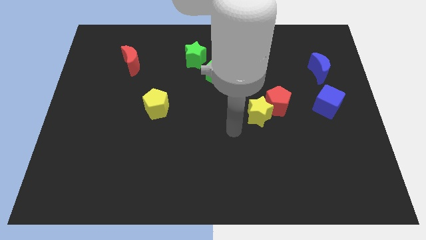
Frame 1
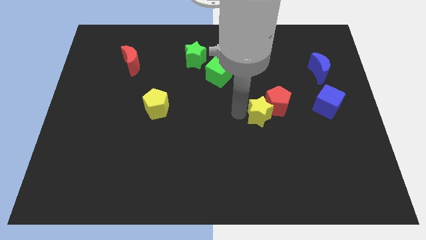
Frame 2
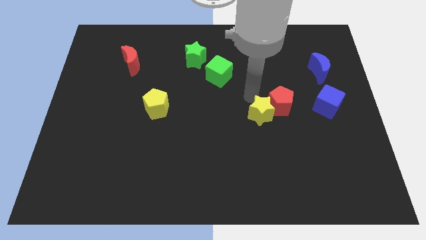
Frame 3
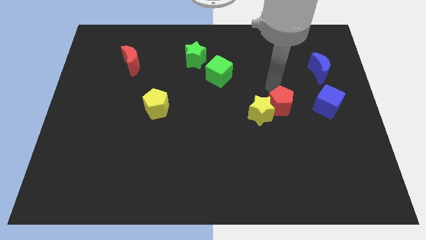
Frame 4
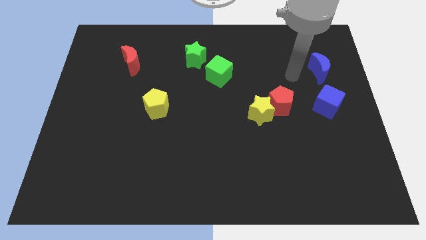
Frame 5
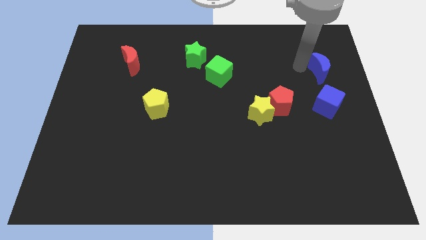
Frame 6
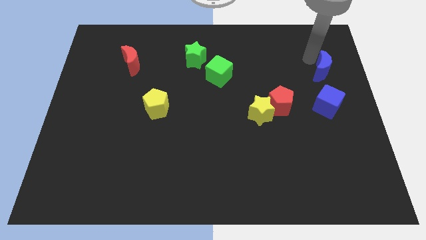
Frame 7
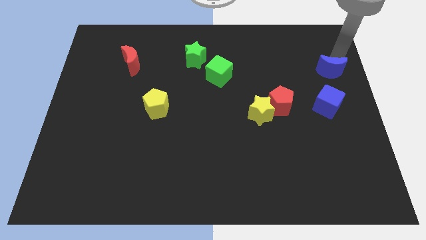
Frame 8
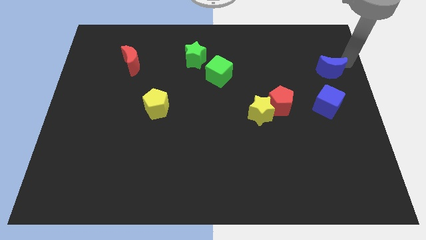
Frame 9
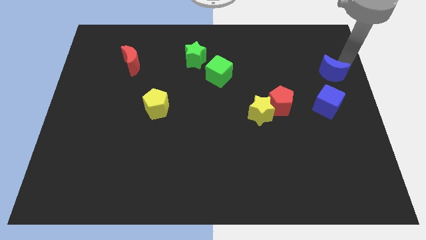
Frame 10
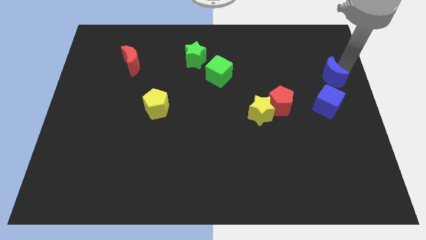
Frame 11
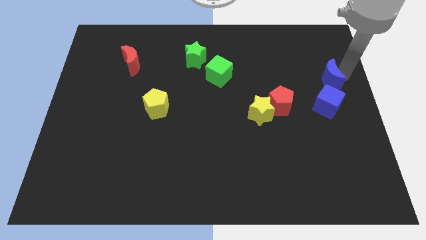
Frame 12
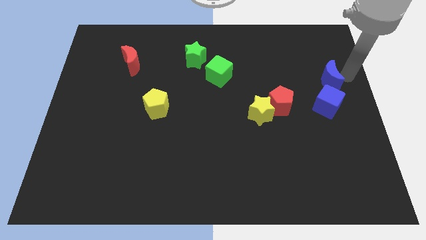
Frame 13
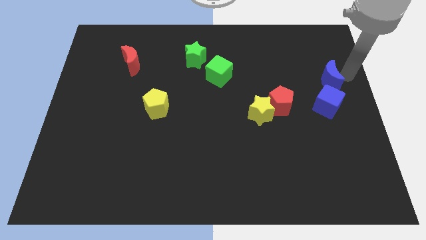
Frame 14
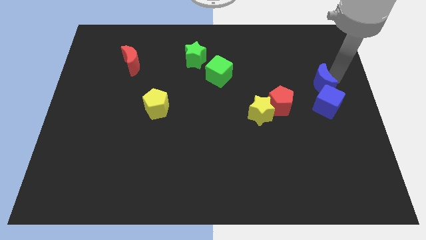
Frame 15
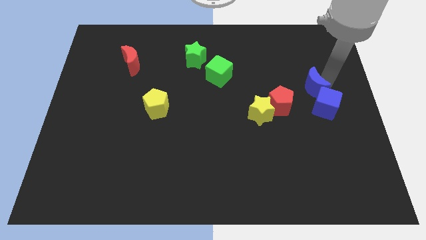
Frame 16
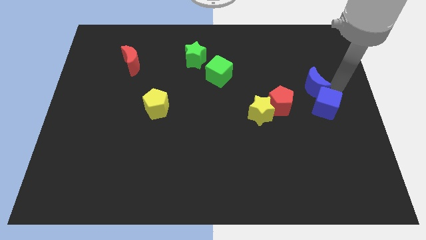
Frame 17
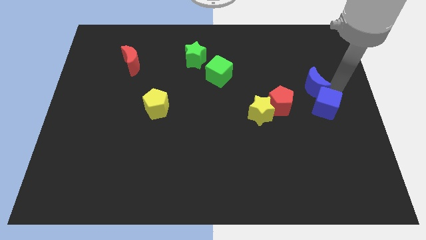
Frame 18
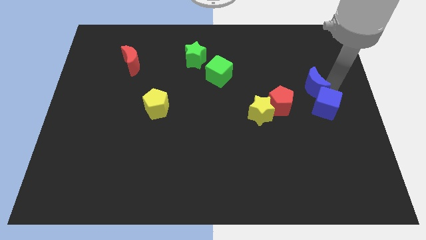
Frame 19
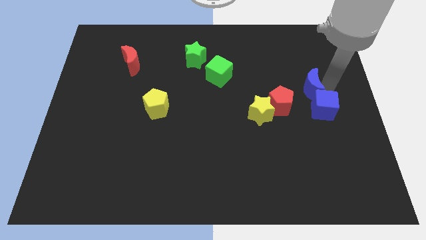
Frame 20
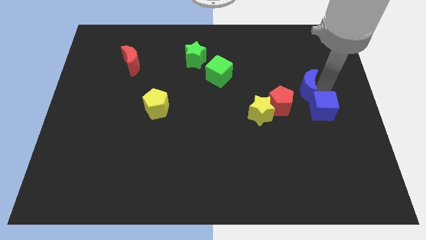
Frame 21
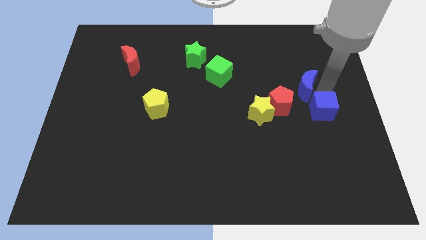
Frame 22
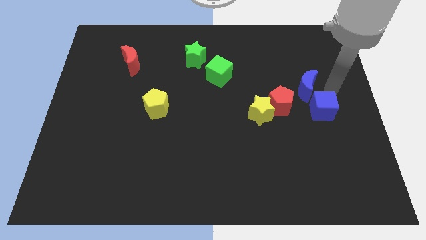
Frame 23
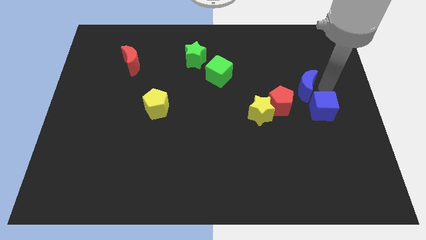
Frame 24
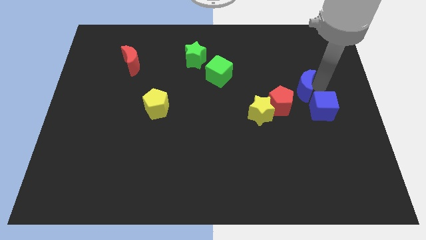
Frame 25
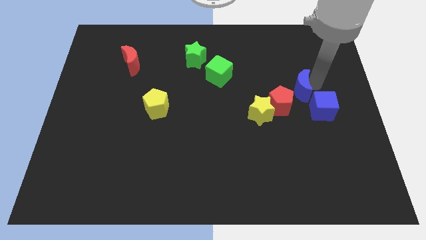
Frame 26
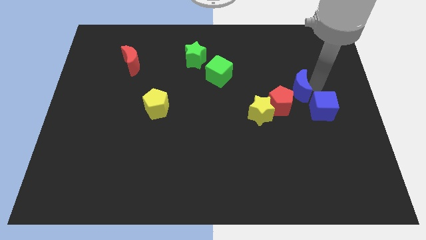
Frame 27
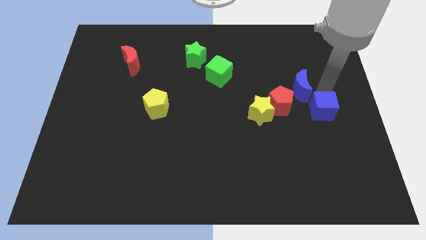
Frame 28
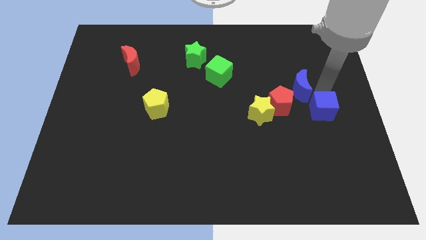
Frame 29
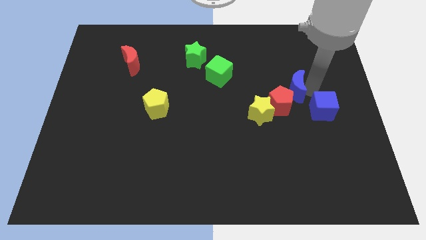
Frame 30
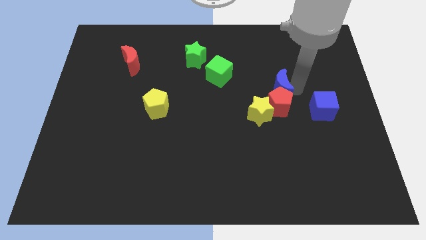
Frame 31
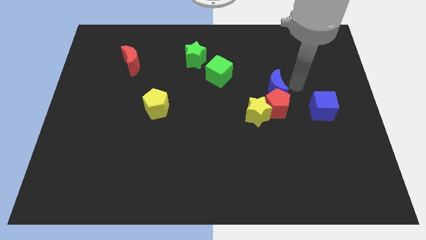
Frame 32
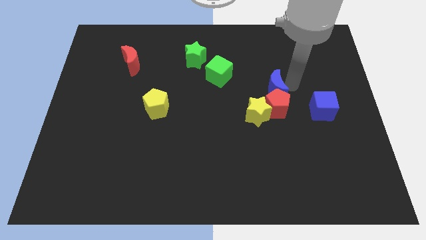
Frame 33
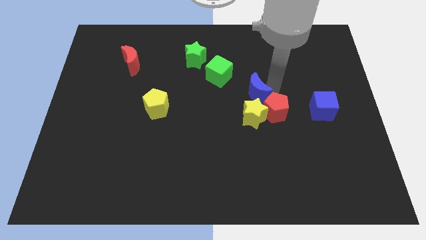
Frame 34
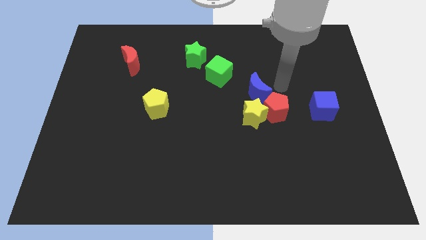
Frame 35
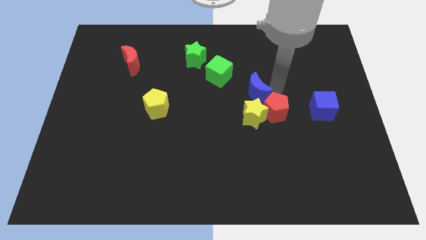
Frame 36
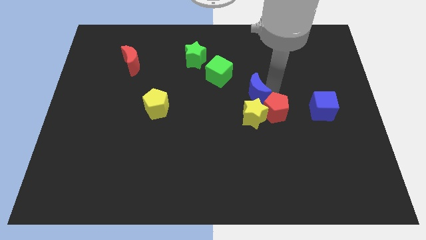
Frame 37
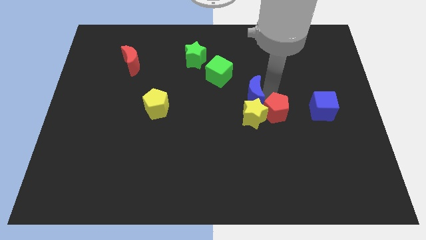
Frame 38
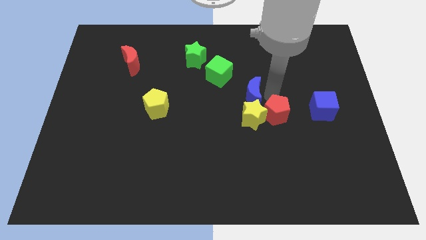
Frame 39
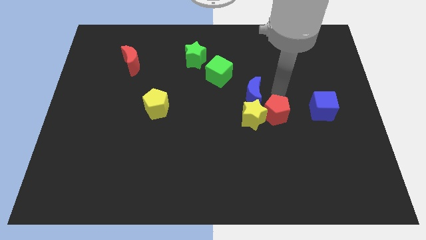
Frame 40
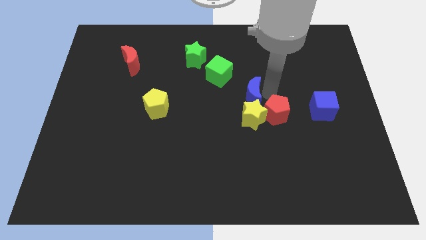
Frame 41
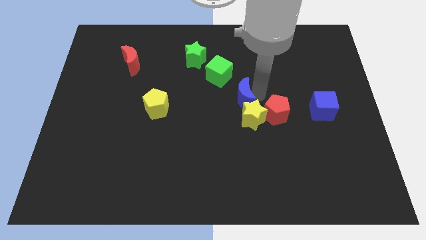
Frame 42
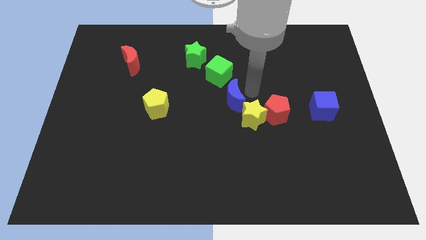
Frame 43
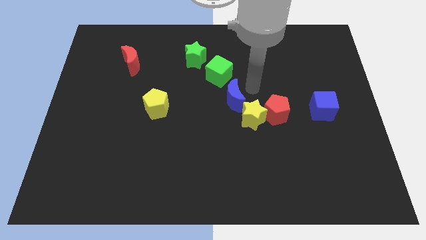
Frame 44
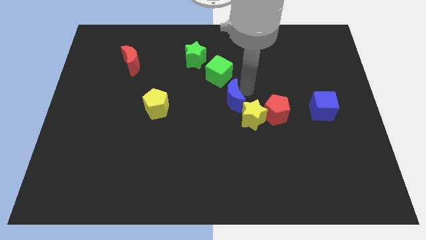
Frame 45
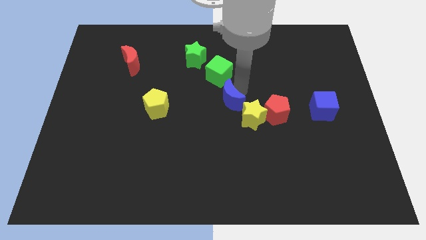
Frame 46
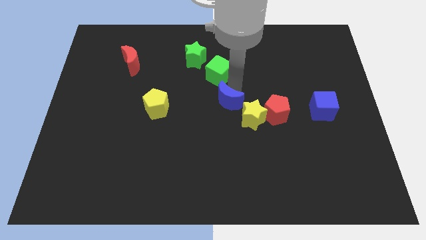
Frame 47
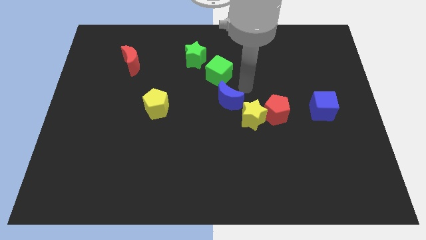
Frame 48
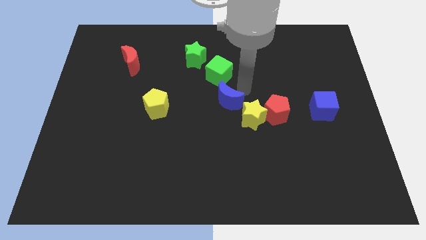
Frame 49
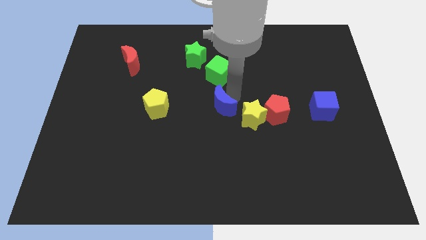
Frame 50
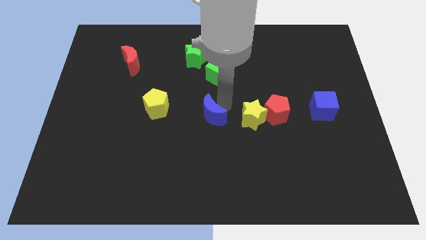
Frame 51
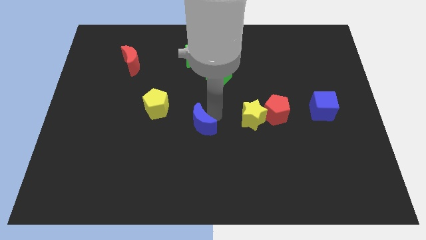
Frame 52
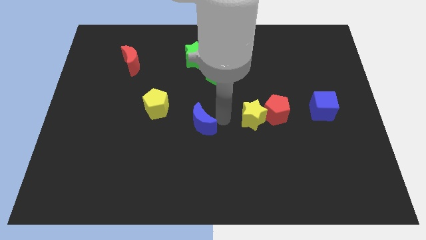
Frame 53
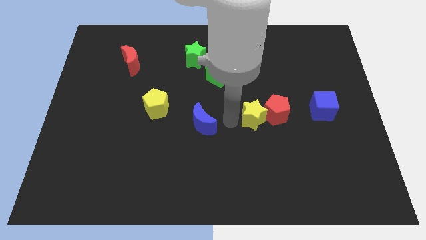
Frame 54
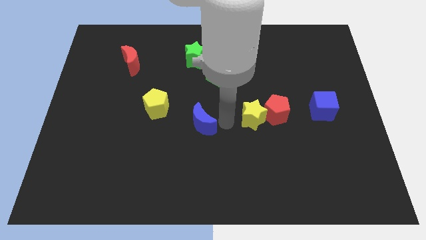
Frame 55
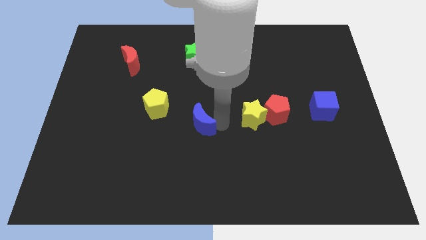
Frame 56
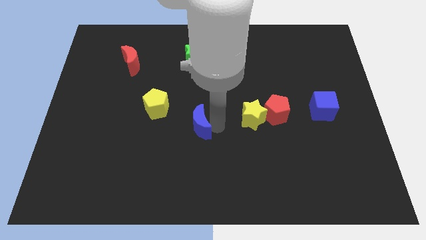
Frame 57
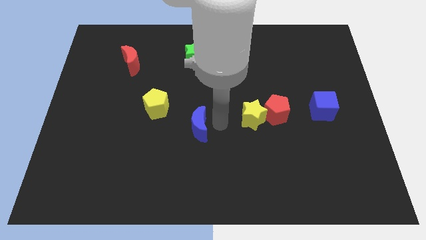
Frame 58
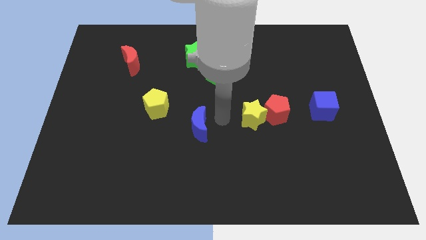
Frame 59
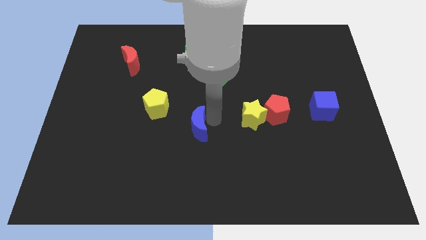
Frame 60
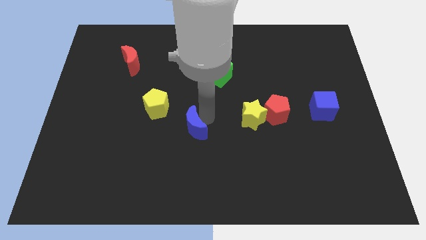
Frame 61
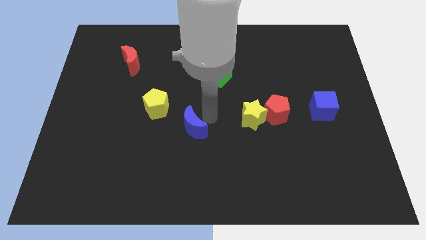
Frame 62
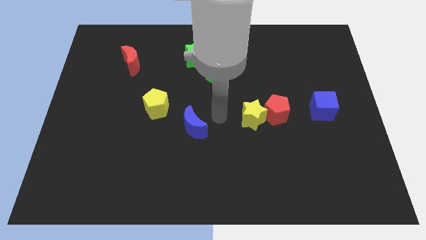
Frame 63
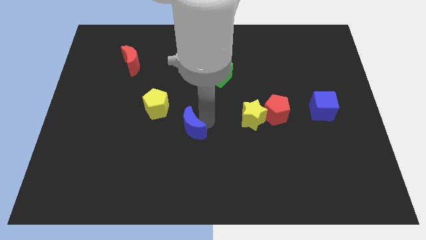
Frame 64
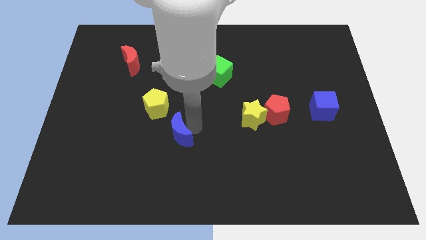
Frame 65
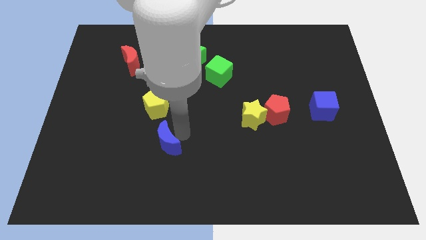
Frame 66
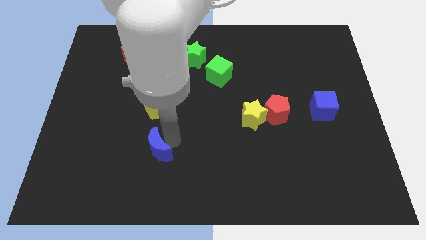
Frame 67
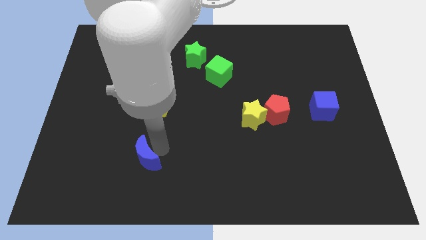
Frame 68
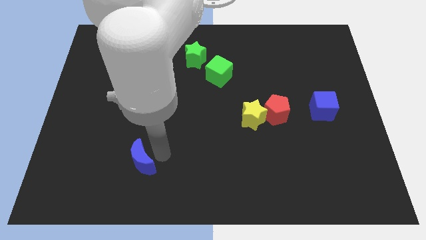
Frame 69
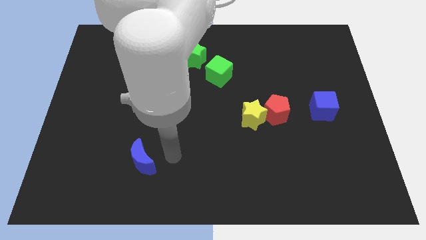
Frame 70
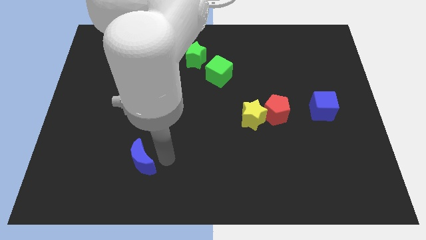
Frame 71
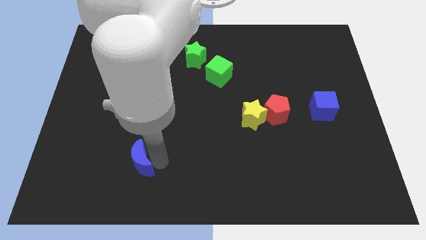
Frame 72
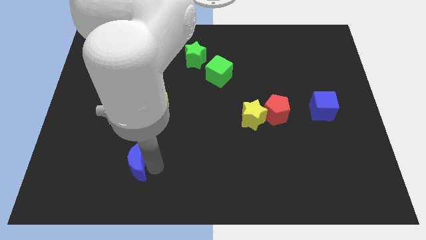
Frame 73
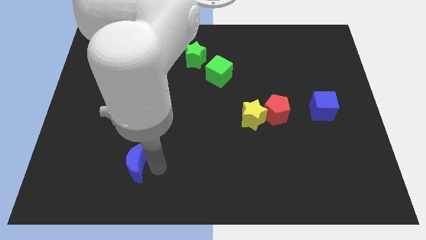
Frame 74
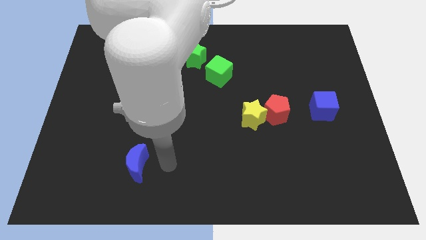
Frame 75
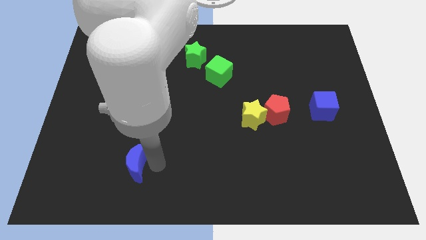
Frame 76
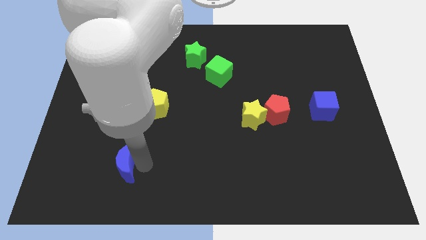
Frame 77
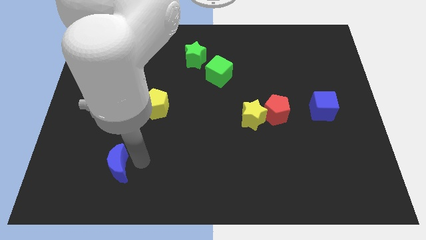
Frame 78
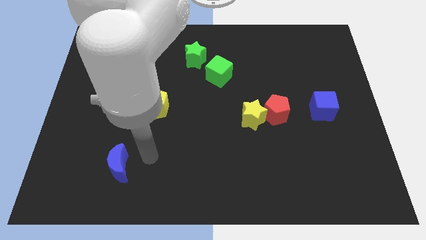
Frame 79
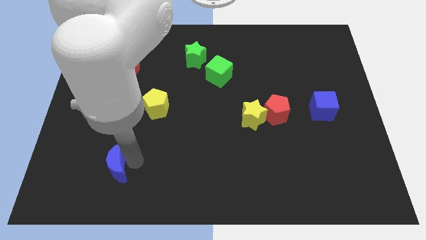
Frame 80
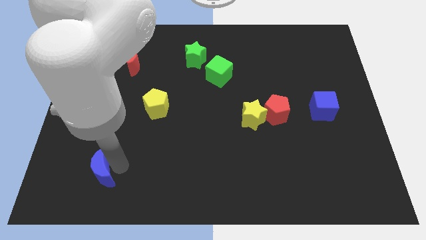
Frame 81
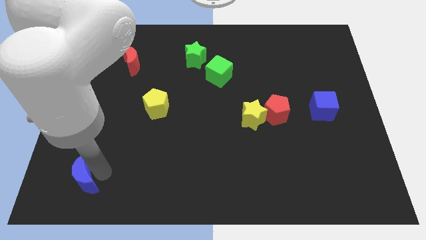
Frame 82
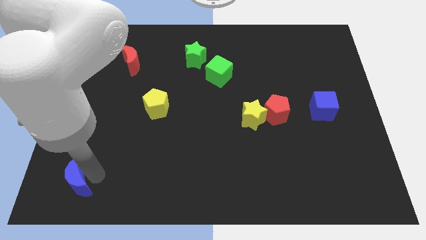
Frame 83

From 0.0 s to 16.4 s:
push the blue moon to the bottom left
